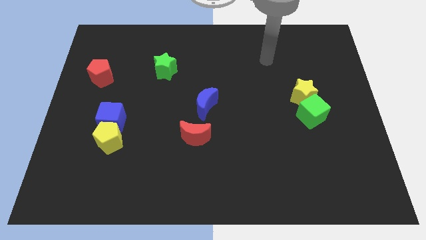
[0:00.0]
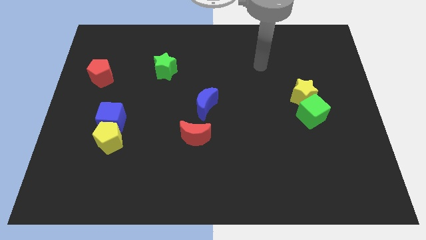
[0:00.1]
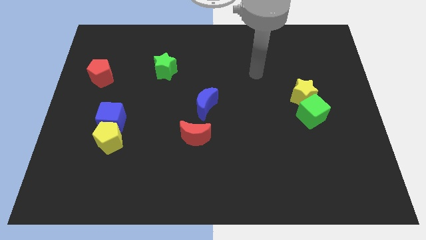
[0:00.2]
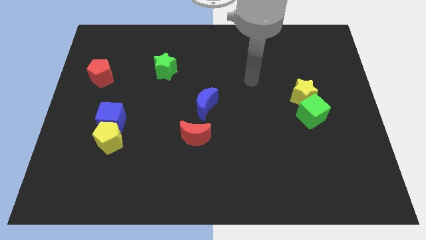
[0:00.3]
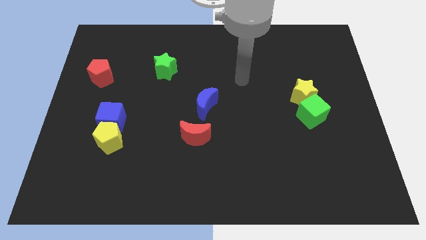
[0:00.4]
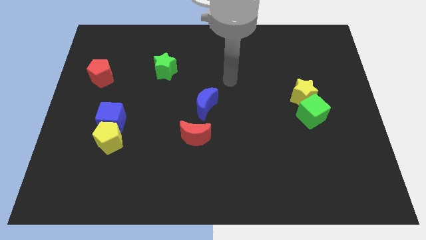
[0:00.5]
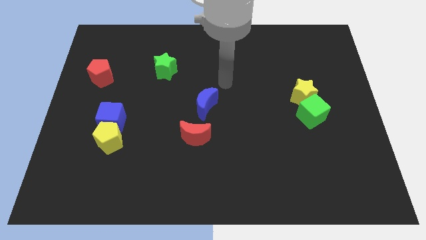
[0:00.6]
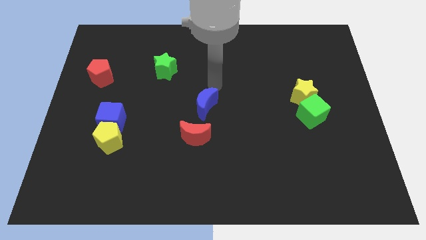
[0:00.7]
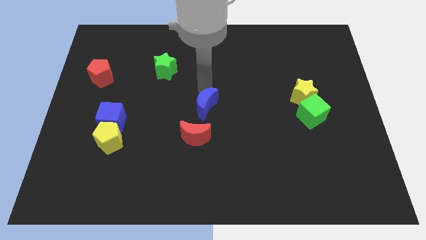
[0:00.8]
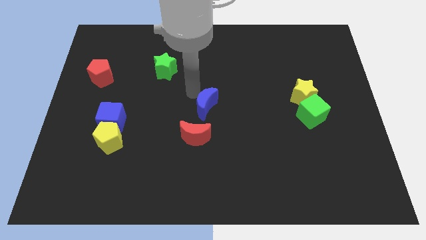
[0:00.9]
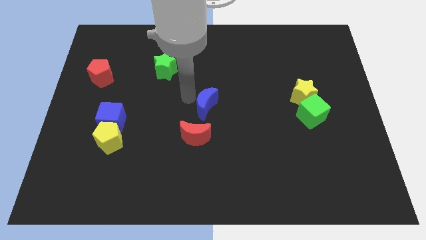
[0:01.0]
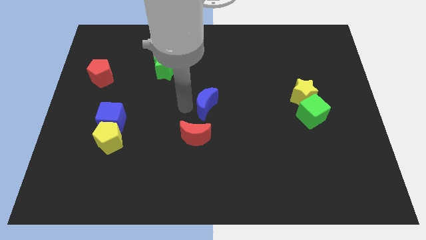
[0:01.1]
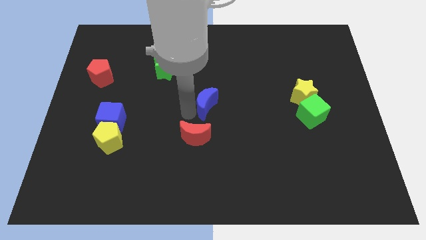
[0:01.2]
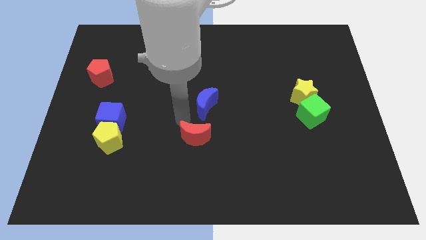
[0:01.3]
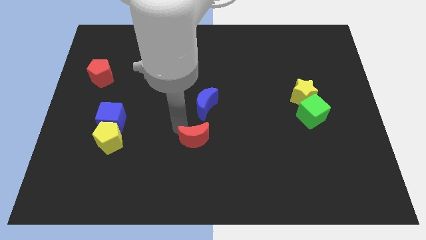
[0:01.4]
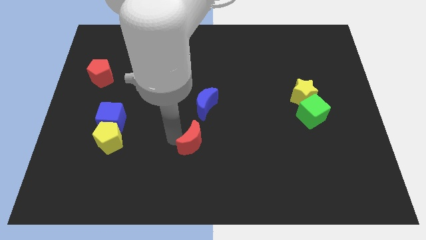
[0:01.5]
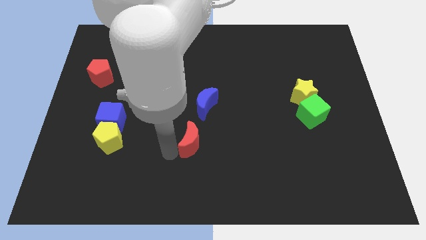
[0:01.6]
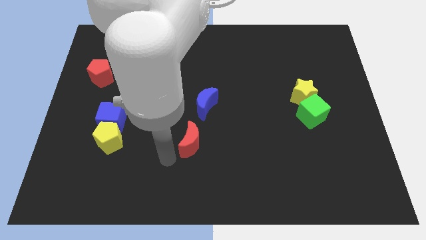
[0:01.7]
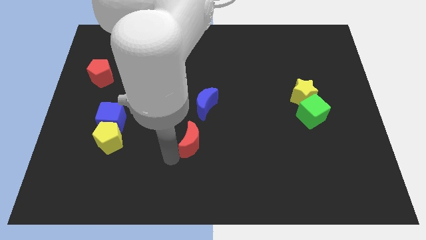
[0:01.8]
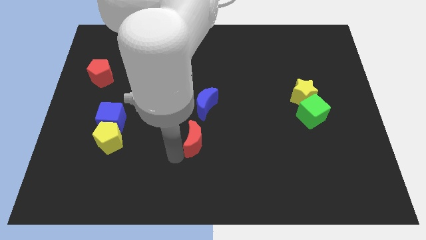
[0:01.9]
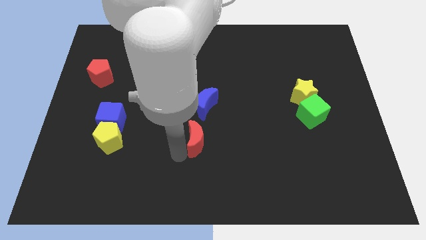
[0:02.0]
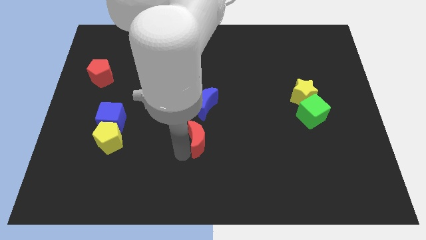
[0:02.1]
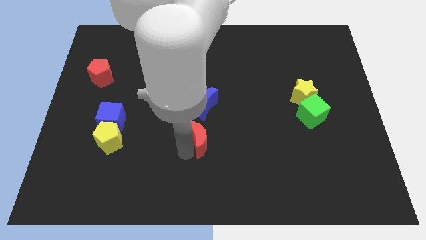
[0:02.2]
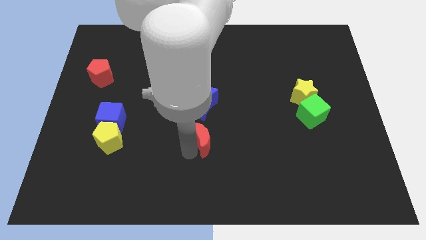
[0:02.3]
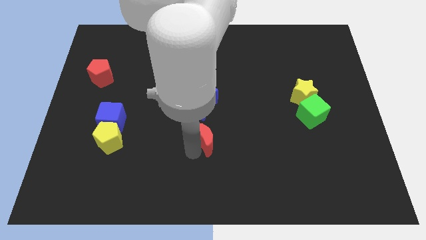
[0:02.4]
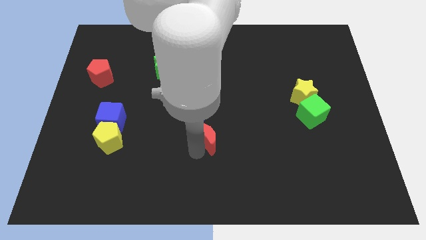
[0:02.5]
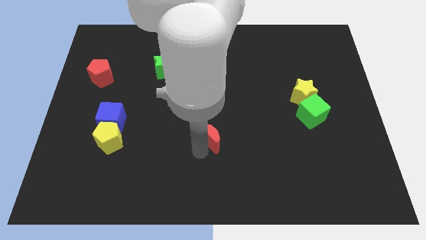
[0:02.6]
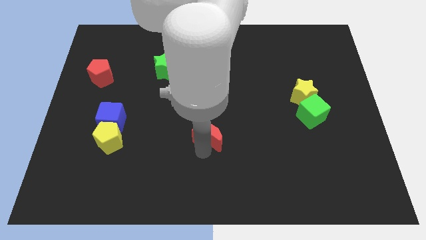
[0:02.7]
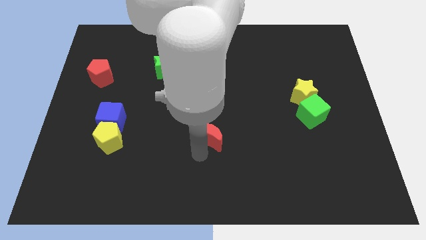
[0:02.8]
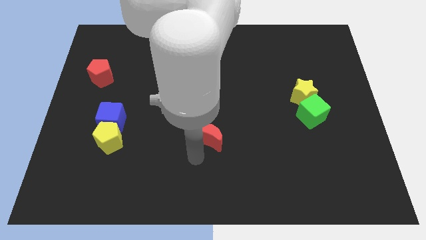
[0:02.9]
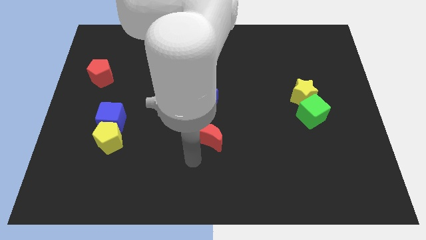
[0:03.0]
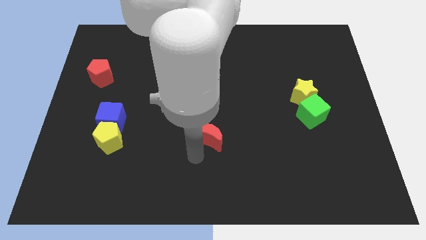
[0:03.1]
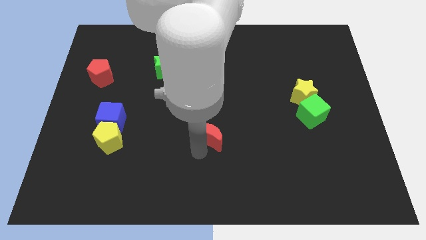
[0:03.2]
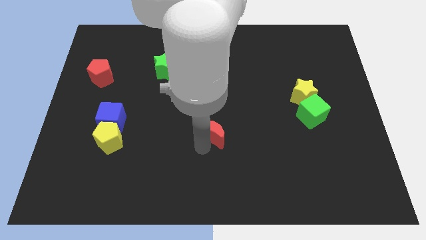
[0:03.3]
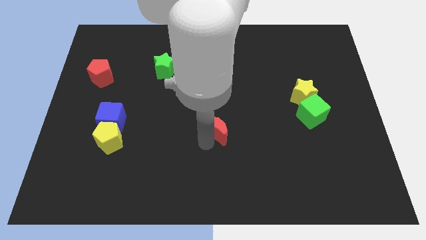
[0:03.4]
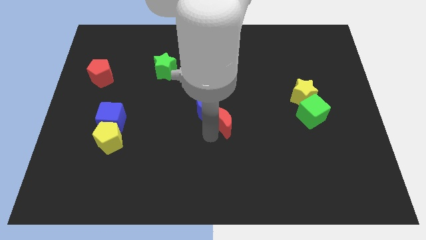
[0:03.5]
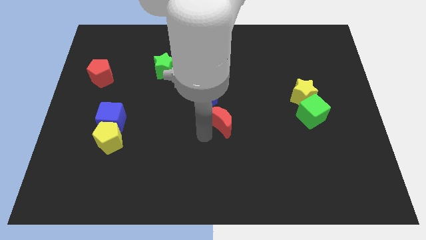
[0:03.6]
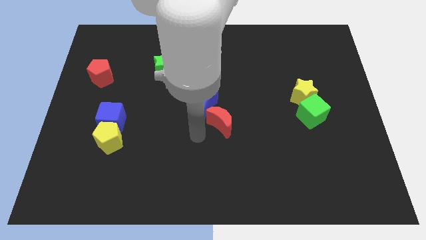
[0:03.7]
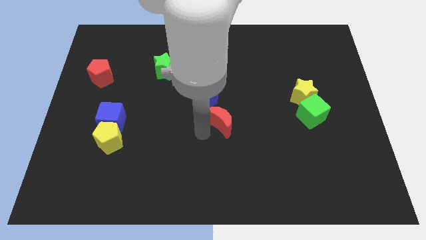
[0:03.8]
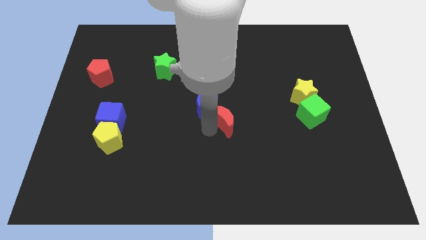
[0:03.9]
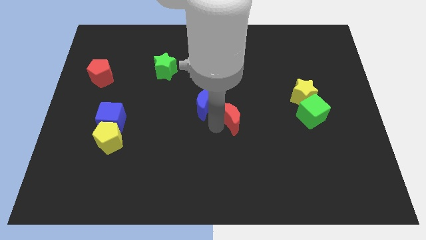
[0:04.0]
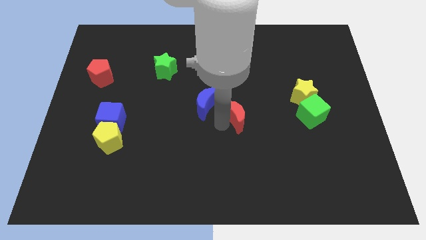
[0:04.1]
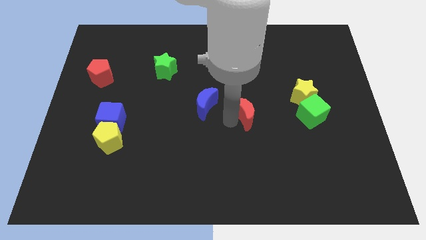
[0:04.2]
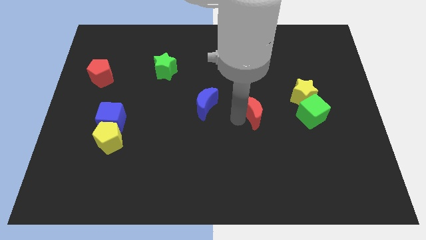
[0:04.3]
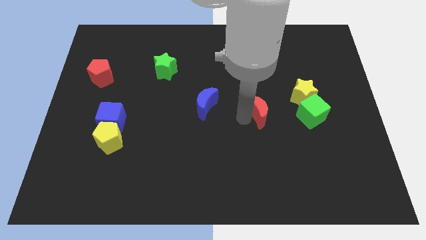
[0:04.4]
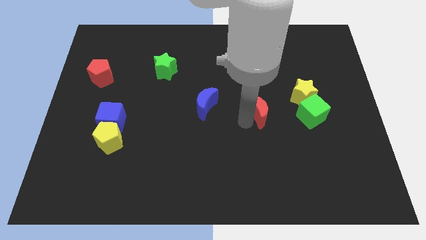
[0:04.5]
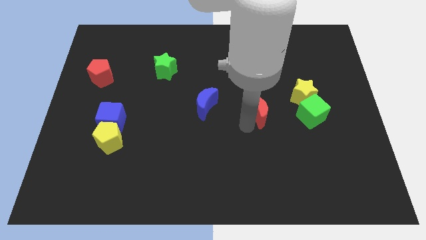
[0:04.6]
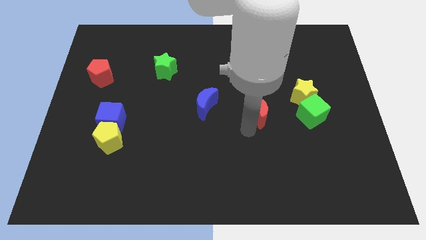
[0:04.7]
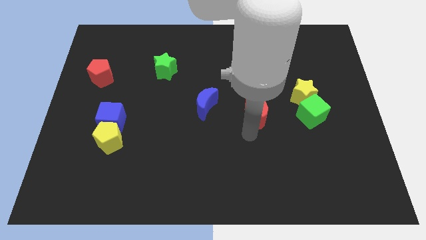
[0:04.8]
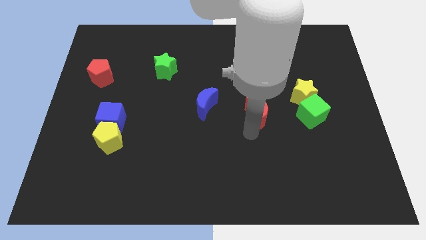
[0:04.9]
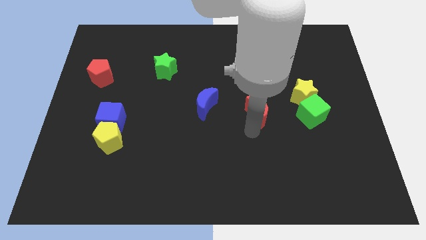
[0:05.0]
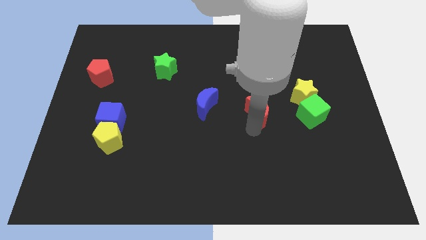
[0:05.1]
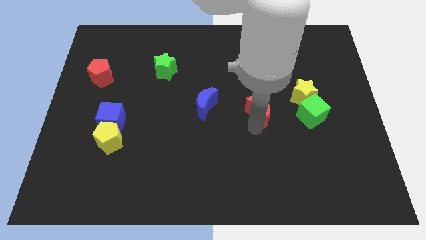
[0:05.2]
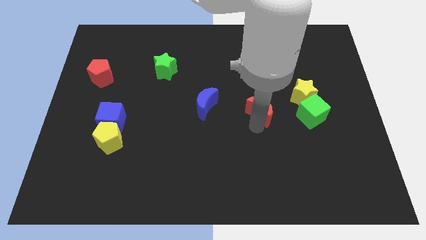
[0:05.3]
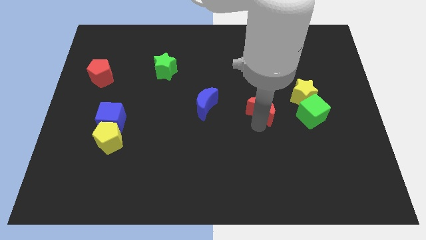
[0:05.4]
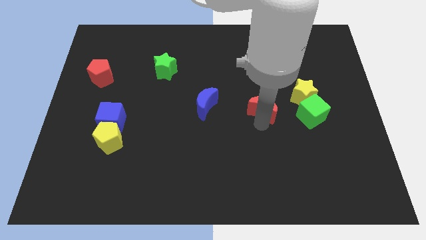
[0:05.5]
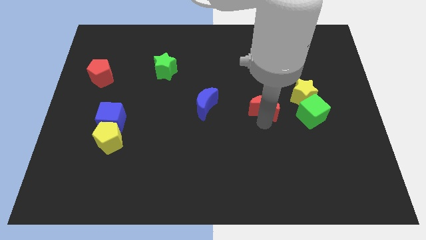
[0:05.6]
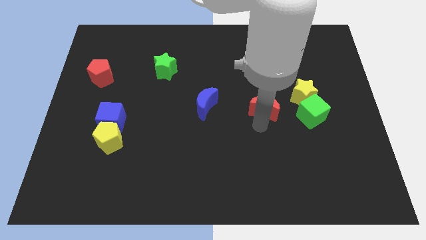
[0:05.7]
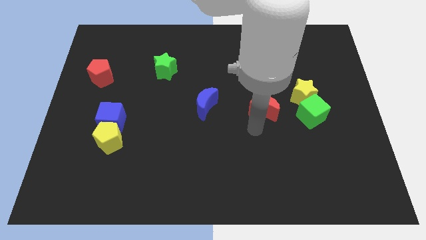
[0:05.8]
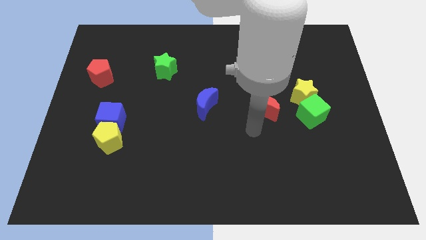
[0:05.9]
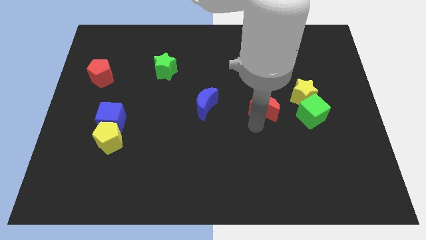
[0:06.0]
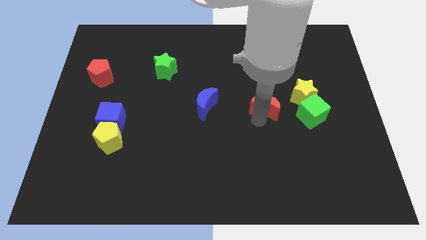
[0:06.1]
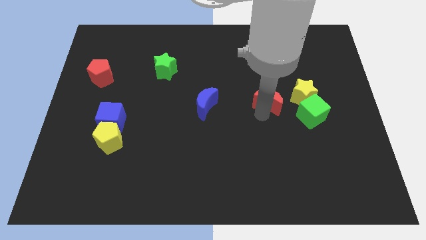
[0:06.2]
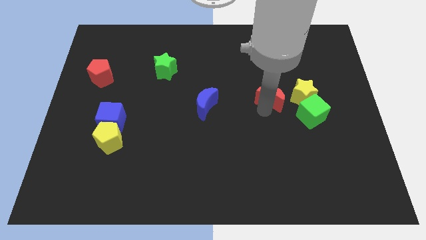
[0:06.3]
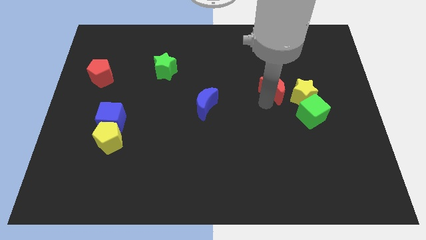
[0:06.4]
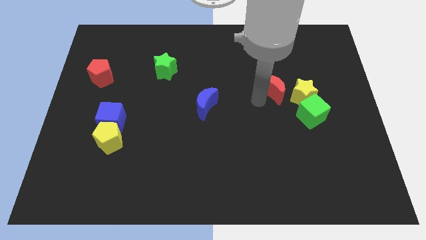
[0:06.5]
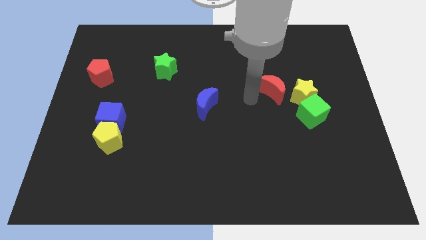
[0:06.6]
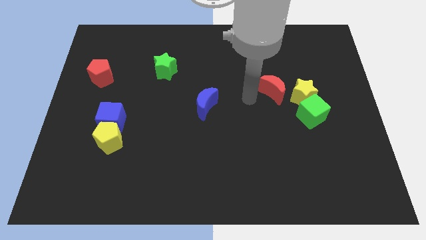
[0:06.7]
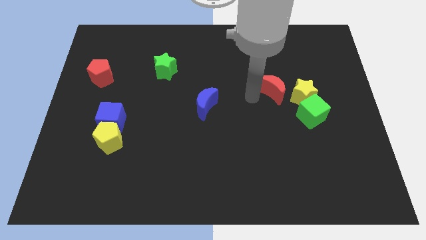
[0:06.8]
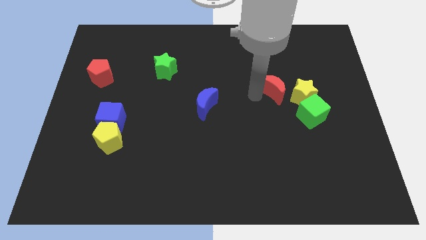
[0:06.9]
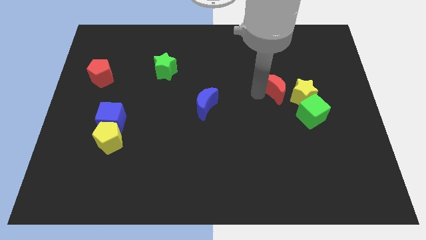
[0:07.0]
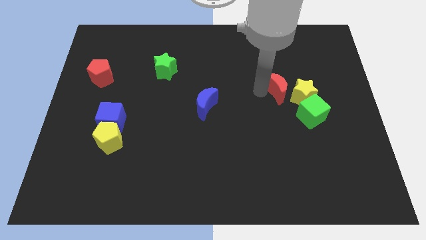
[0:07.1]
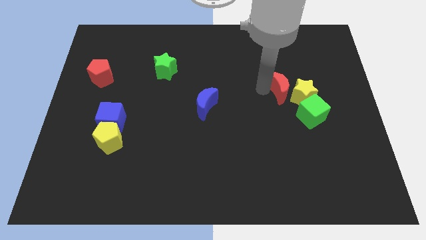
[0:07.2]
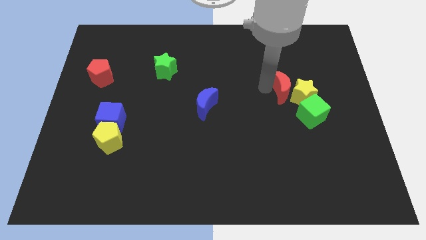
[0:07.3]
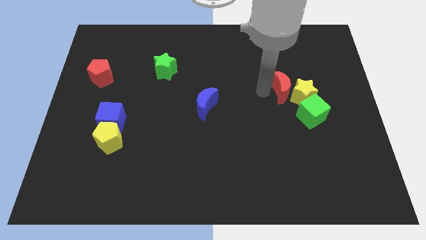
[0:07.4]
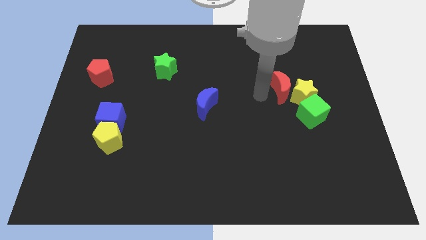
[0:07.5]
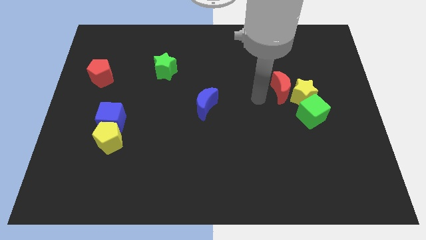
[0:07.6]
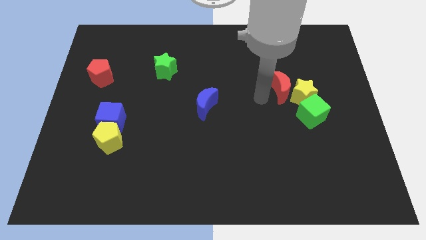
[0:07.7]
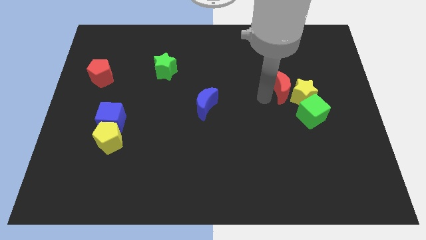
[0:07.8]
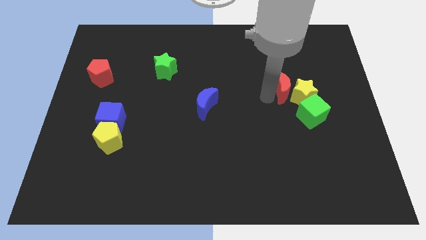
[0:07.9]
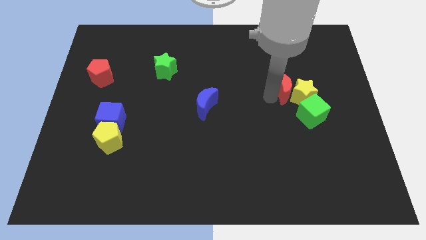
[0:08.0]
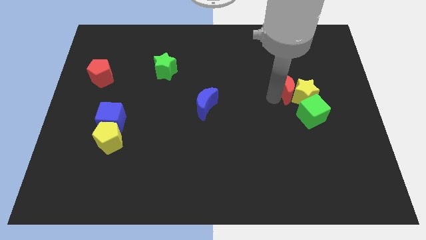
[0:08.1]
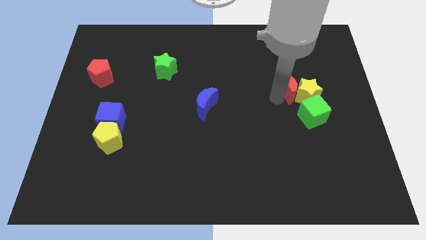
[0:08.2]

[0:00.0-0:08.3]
move the red moon to the top of the green cube
